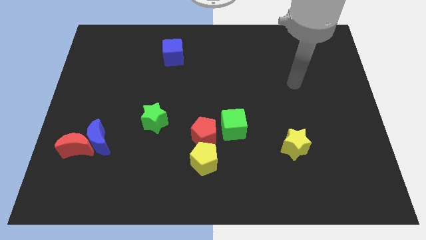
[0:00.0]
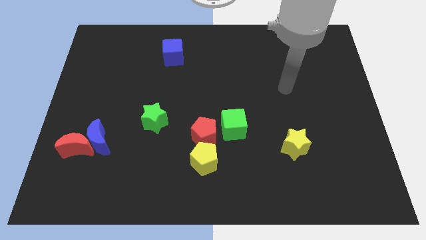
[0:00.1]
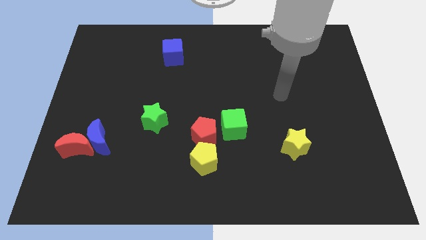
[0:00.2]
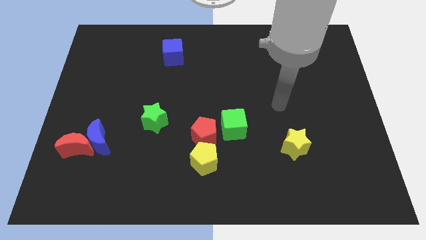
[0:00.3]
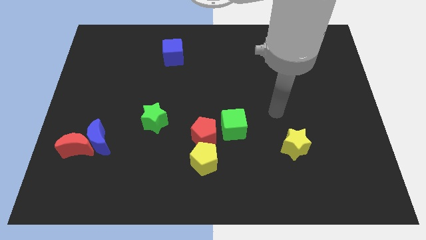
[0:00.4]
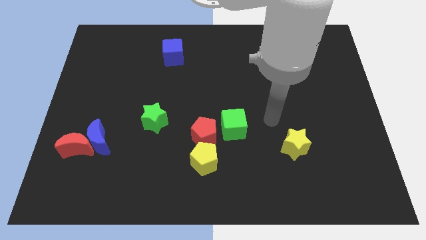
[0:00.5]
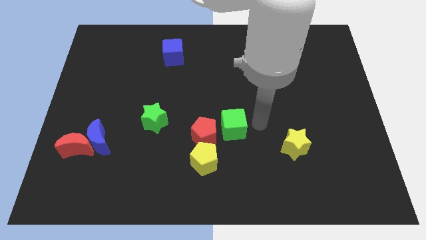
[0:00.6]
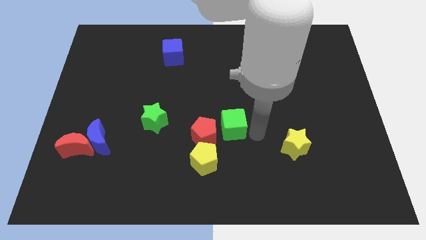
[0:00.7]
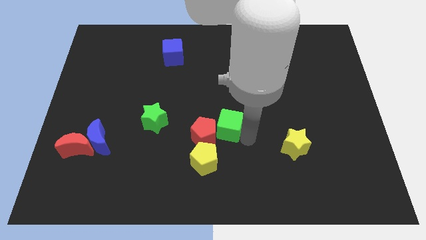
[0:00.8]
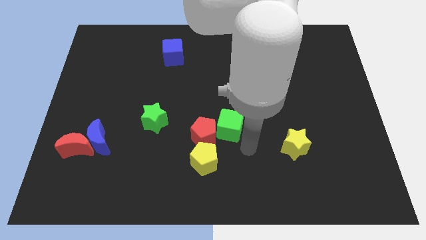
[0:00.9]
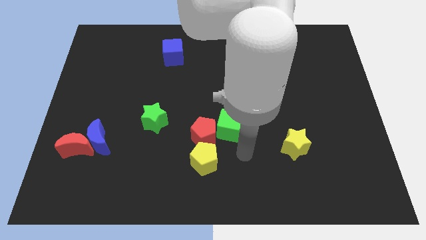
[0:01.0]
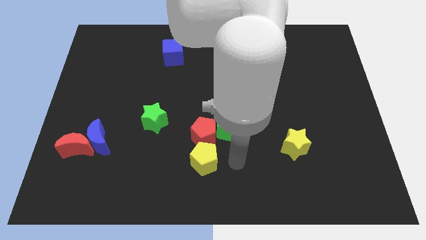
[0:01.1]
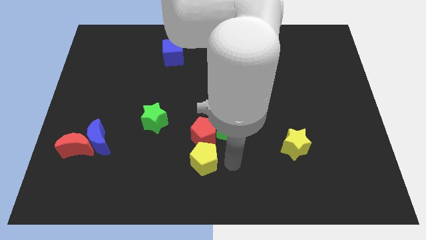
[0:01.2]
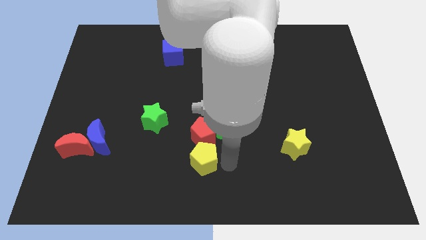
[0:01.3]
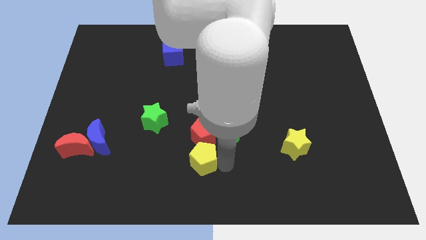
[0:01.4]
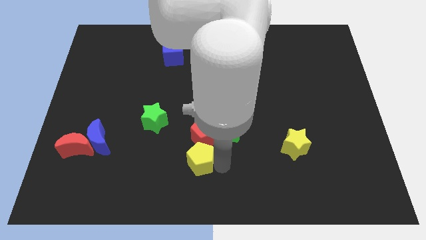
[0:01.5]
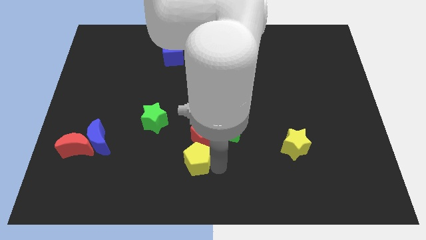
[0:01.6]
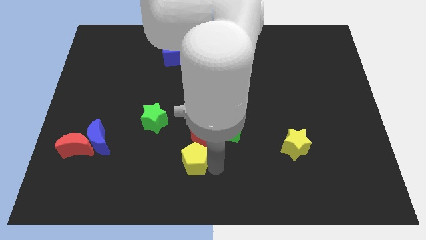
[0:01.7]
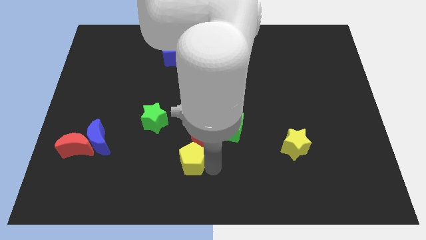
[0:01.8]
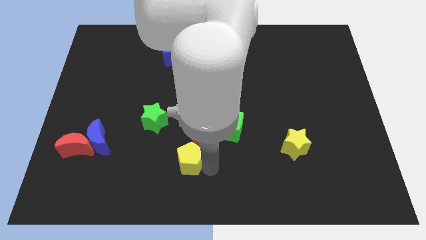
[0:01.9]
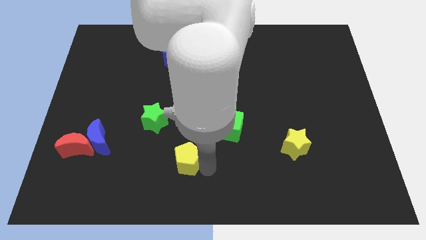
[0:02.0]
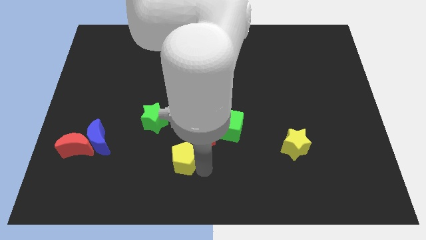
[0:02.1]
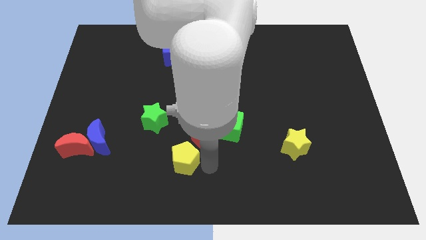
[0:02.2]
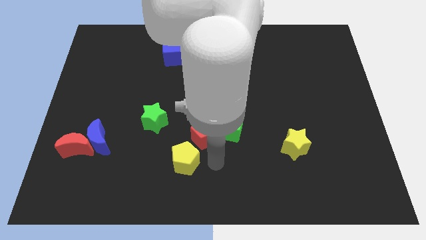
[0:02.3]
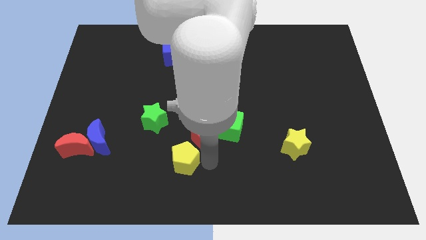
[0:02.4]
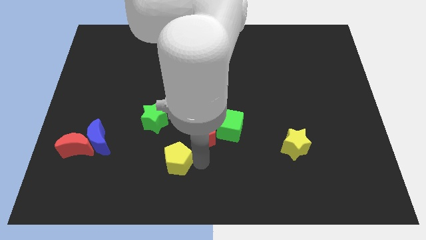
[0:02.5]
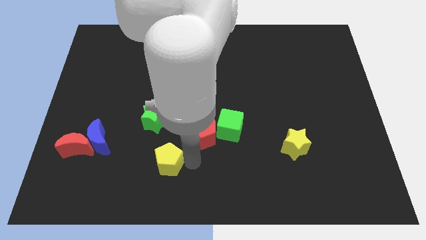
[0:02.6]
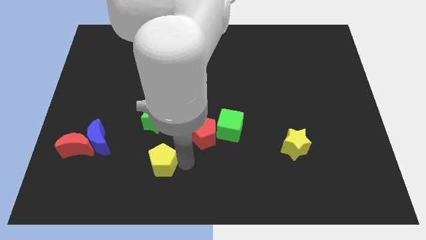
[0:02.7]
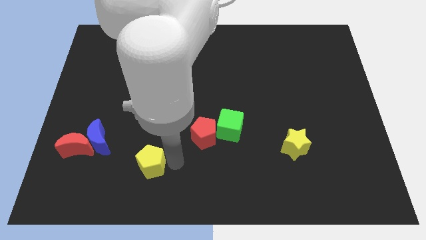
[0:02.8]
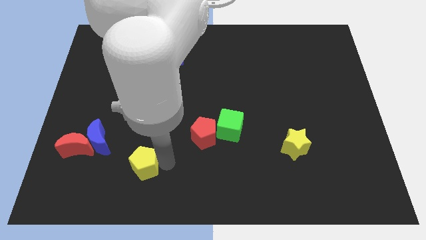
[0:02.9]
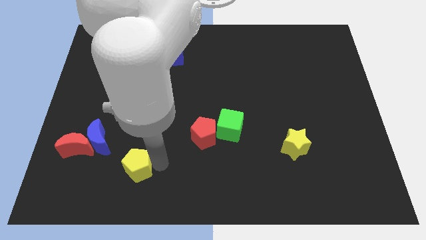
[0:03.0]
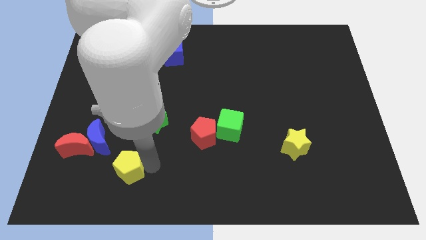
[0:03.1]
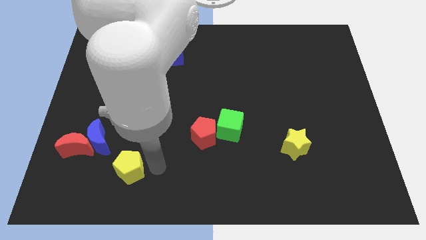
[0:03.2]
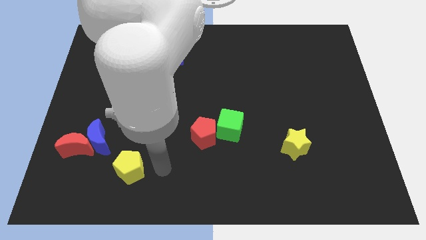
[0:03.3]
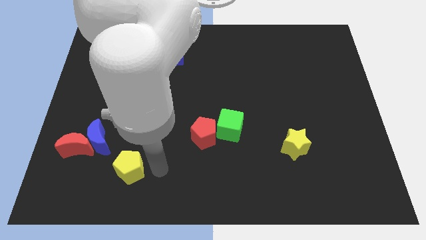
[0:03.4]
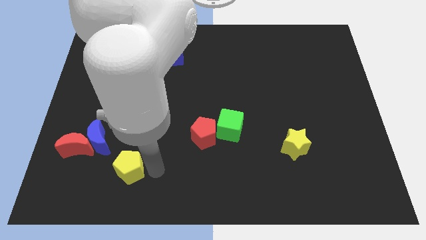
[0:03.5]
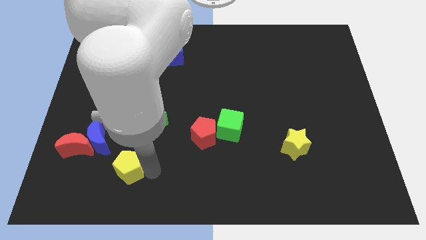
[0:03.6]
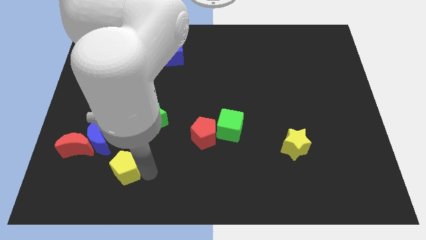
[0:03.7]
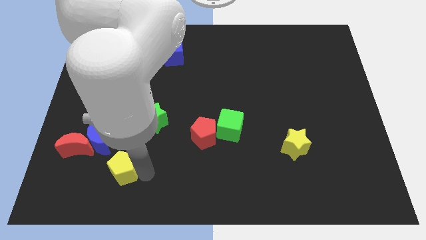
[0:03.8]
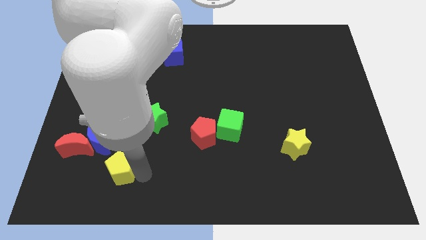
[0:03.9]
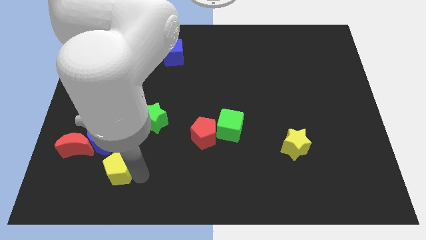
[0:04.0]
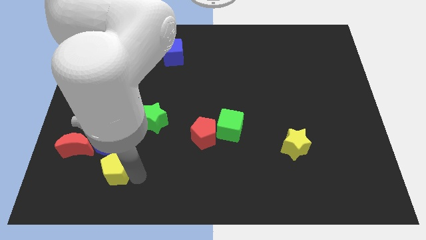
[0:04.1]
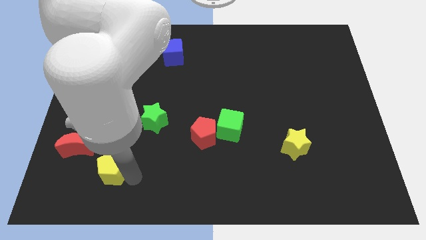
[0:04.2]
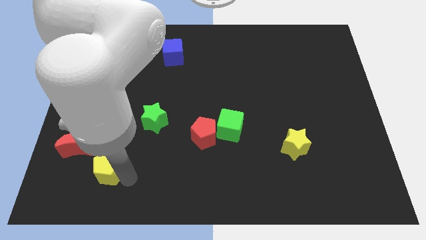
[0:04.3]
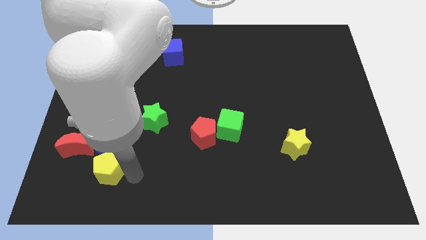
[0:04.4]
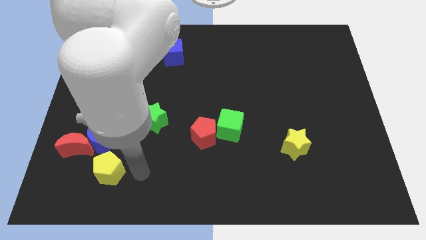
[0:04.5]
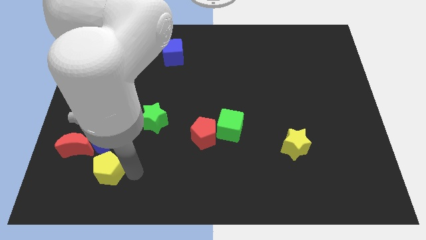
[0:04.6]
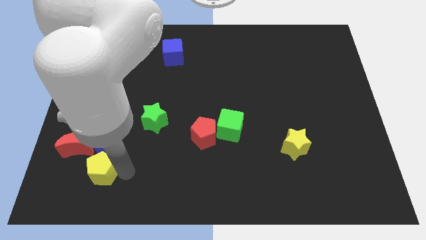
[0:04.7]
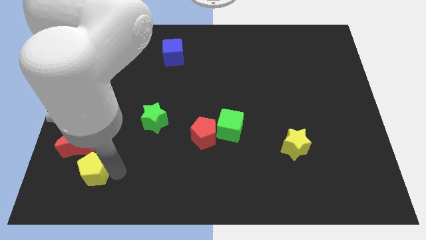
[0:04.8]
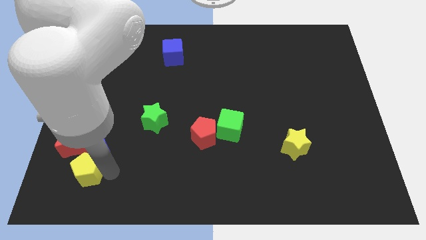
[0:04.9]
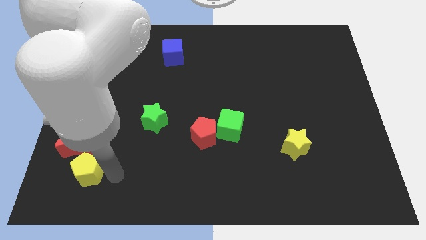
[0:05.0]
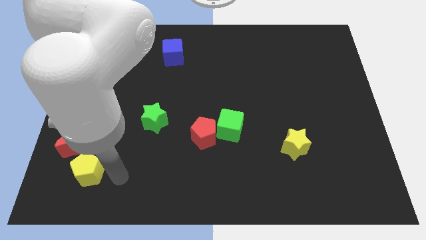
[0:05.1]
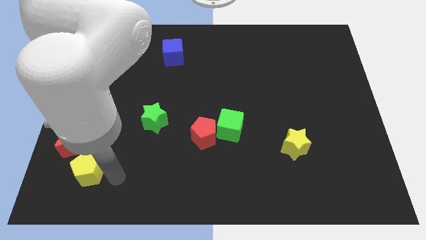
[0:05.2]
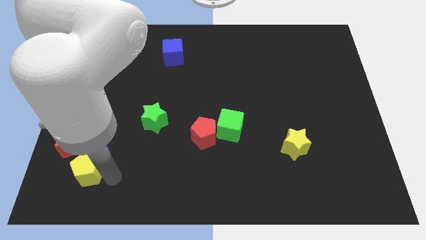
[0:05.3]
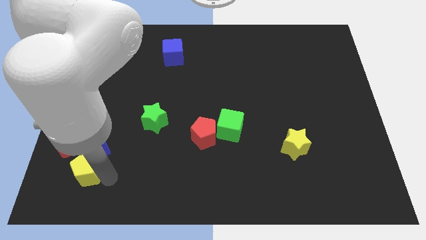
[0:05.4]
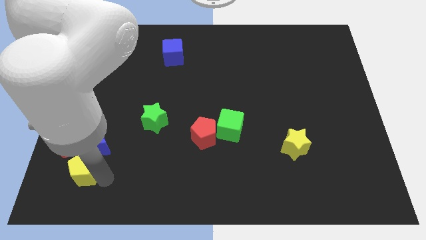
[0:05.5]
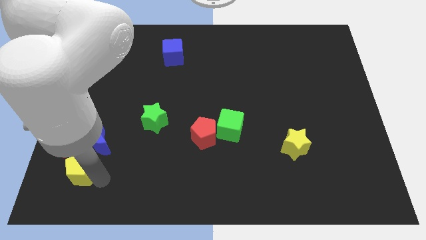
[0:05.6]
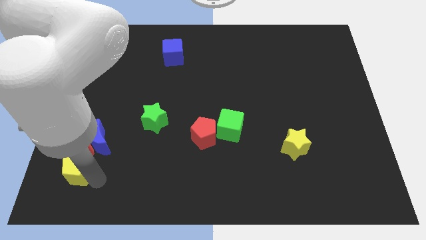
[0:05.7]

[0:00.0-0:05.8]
move the yellow pentagon to the red moon

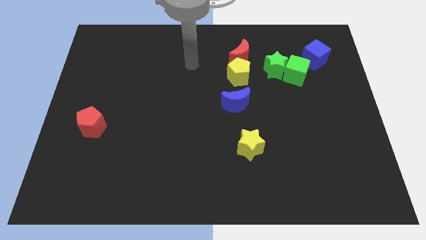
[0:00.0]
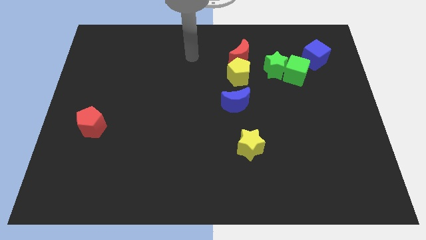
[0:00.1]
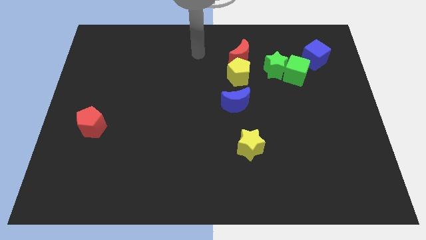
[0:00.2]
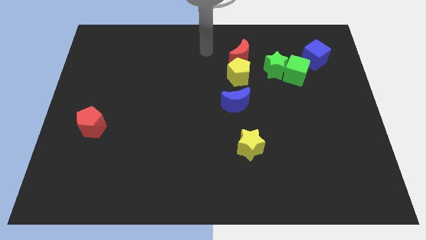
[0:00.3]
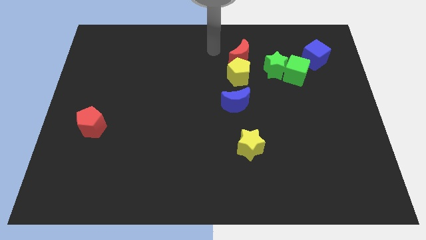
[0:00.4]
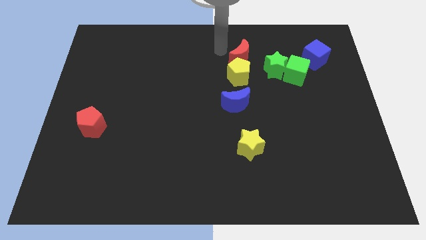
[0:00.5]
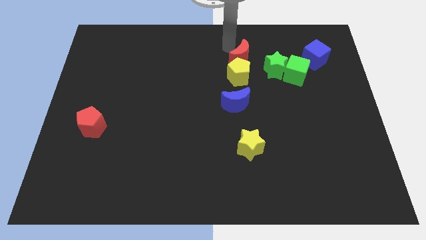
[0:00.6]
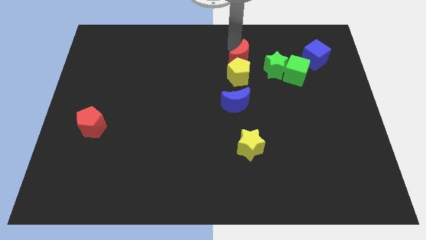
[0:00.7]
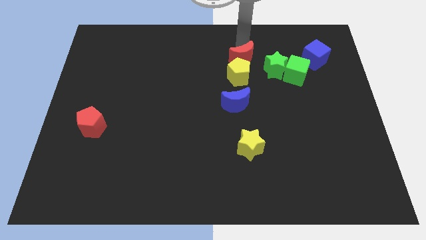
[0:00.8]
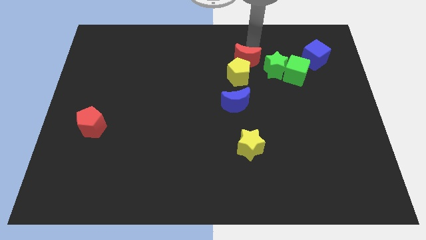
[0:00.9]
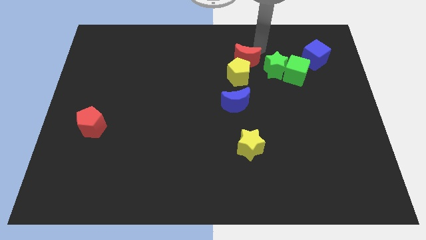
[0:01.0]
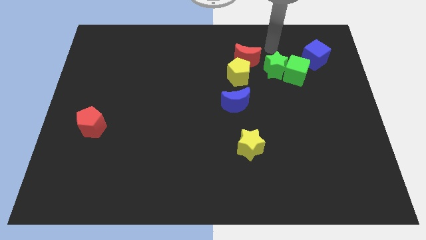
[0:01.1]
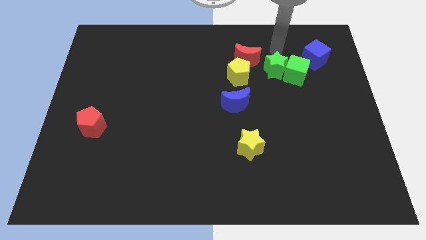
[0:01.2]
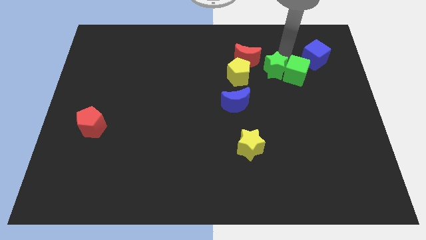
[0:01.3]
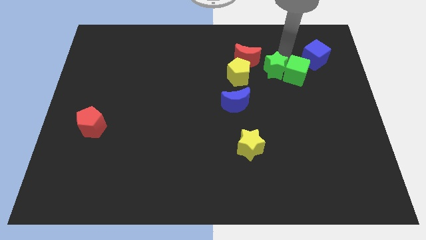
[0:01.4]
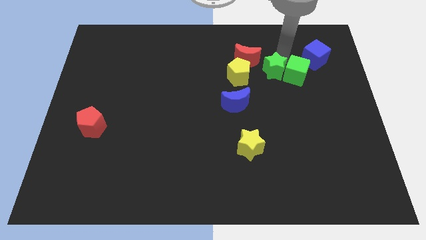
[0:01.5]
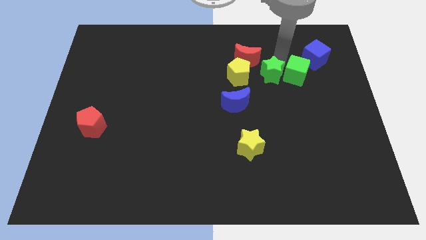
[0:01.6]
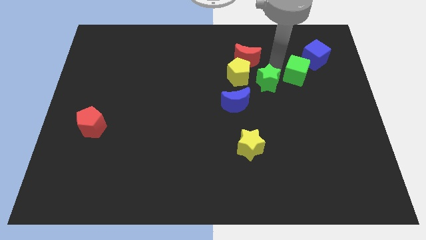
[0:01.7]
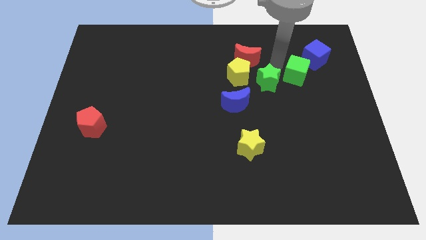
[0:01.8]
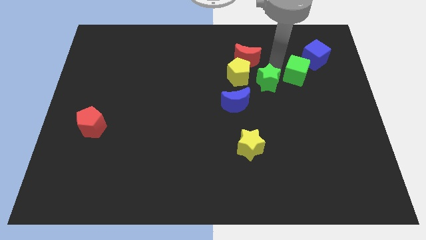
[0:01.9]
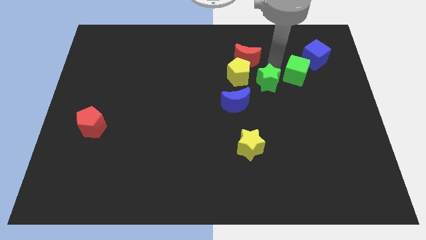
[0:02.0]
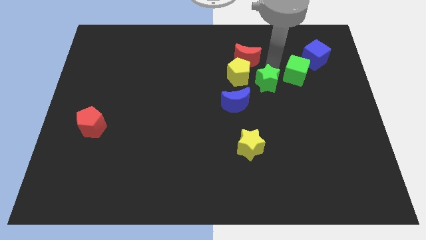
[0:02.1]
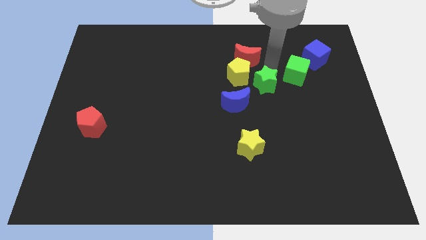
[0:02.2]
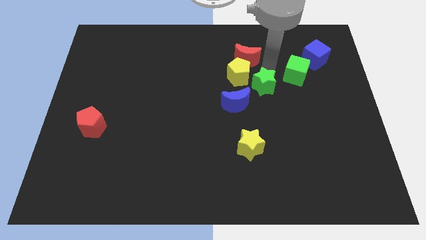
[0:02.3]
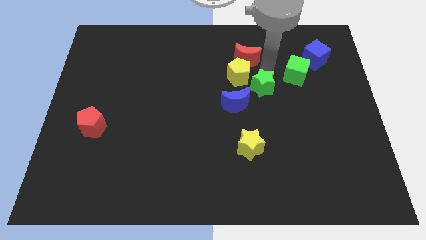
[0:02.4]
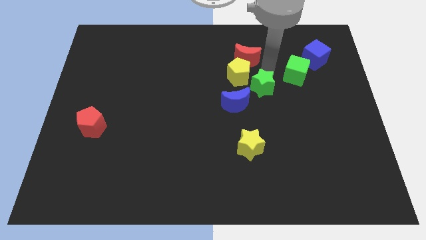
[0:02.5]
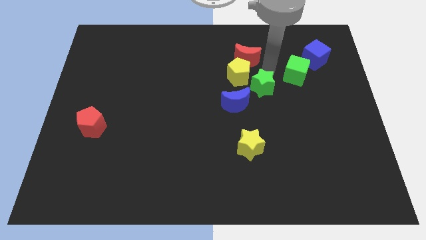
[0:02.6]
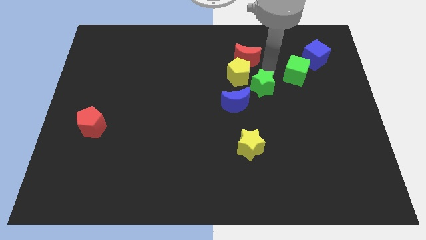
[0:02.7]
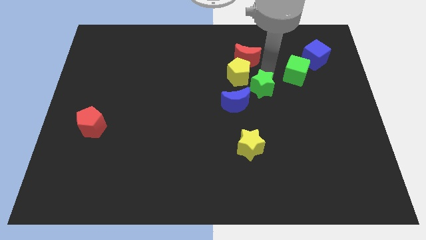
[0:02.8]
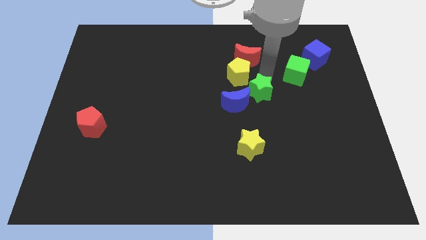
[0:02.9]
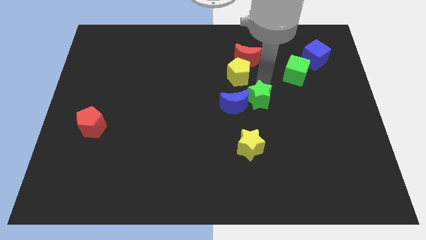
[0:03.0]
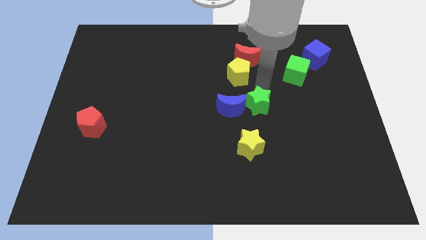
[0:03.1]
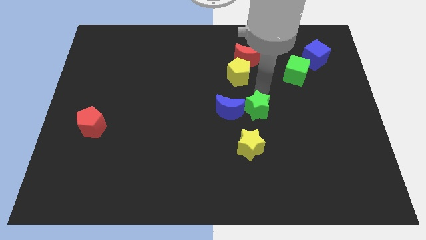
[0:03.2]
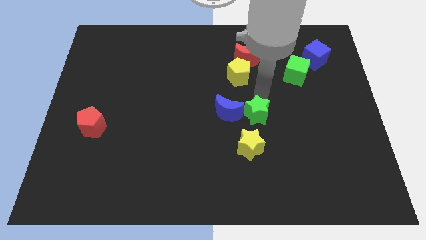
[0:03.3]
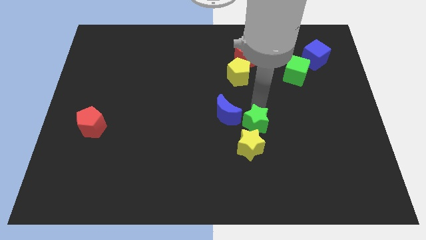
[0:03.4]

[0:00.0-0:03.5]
slide the green star close to the yellow star
